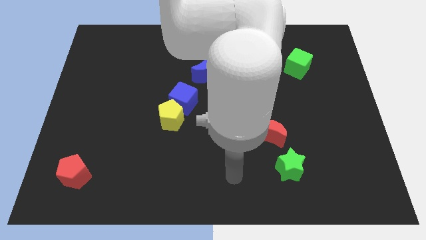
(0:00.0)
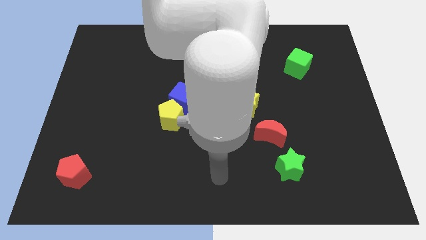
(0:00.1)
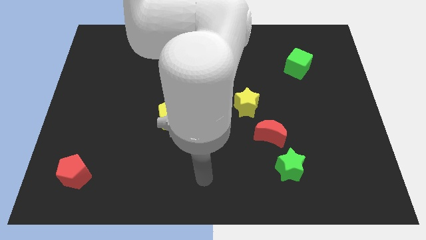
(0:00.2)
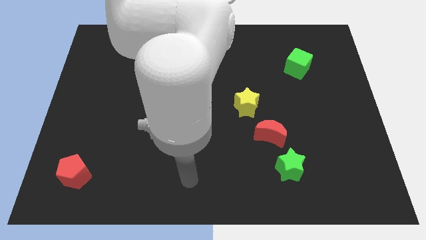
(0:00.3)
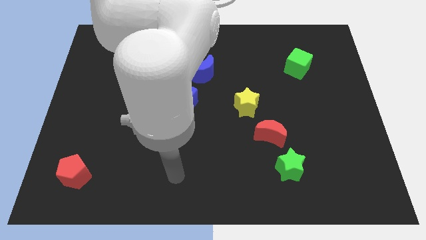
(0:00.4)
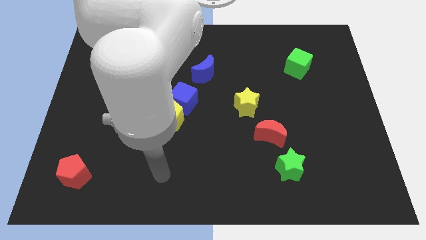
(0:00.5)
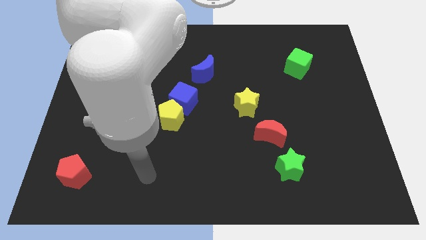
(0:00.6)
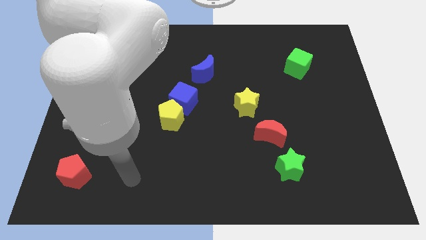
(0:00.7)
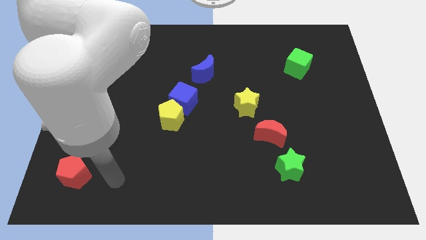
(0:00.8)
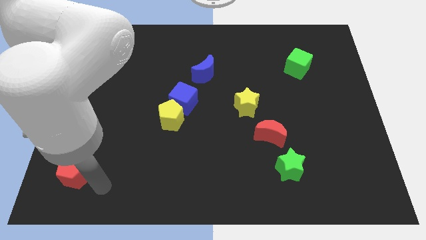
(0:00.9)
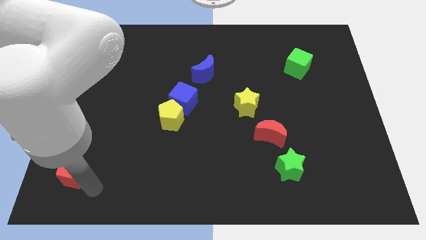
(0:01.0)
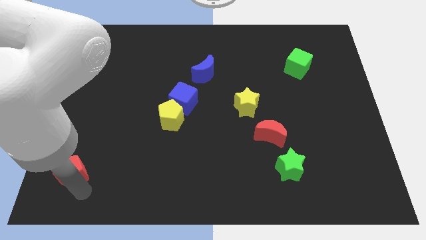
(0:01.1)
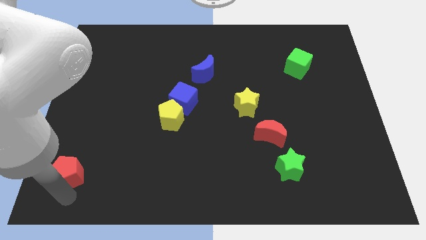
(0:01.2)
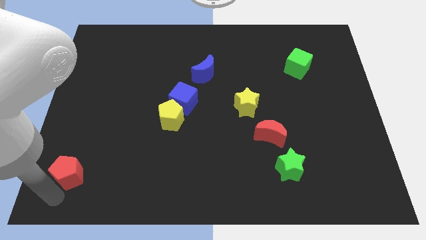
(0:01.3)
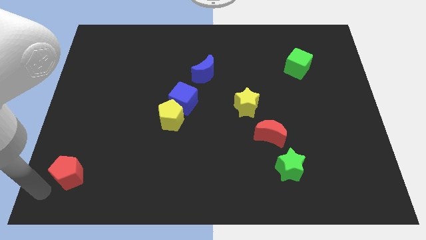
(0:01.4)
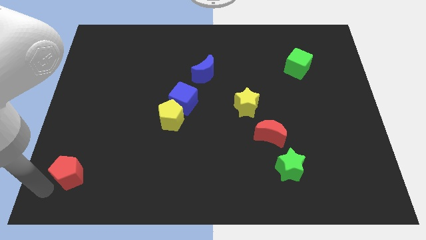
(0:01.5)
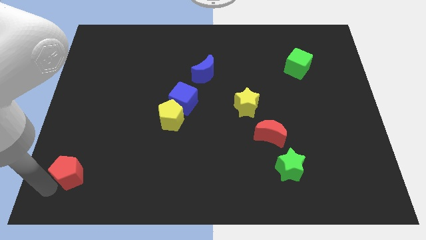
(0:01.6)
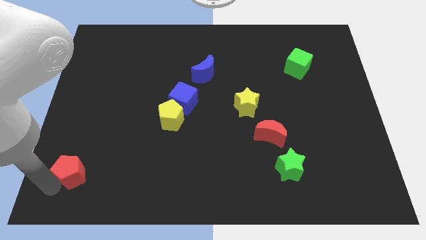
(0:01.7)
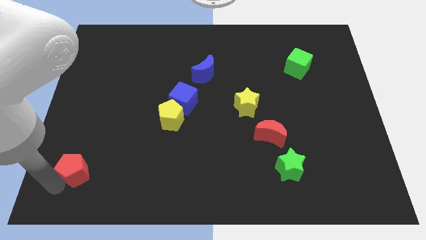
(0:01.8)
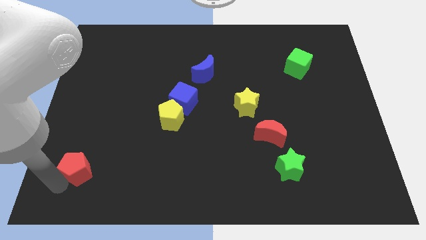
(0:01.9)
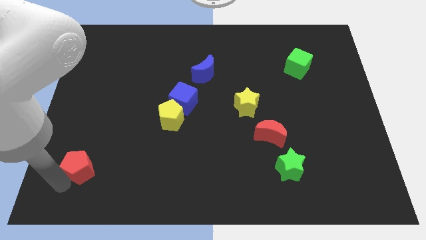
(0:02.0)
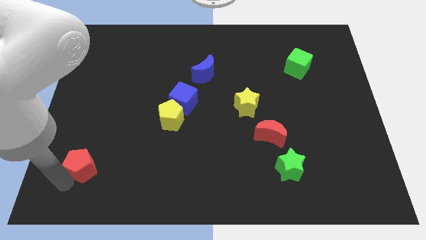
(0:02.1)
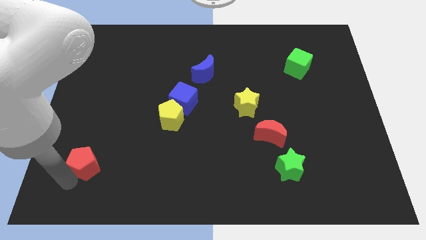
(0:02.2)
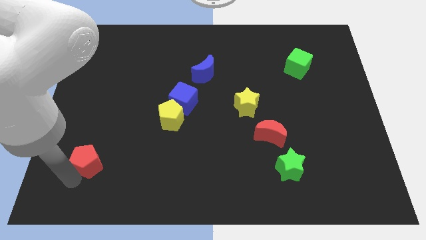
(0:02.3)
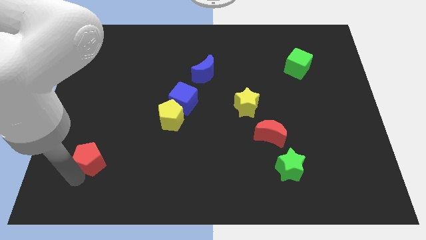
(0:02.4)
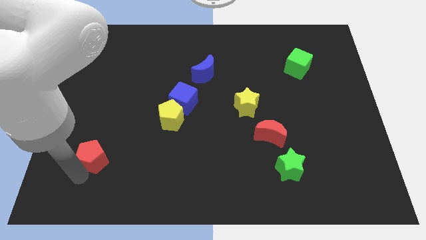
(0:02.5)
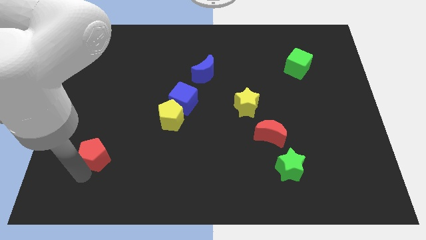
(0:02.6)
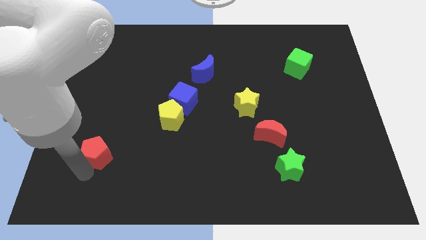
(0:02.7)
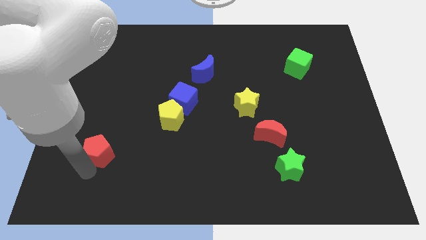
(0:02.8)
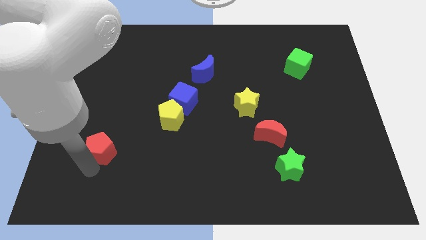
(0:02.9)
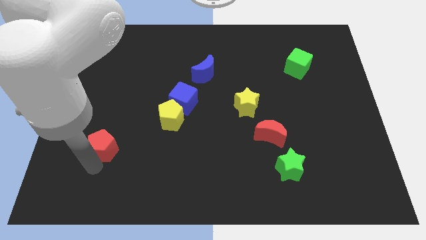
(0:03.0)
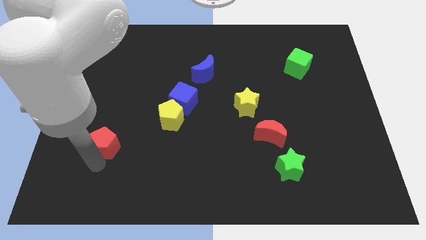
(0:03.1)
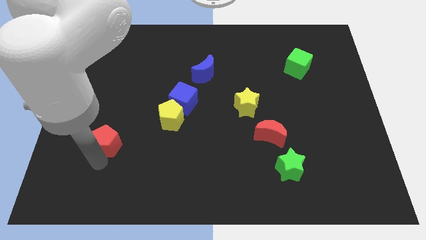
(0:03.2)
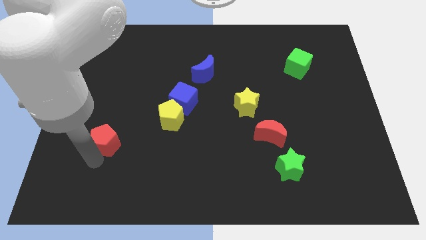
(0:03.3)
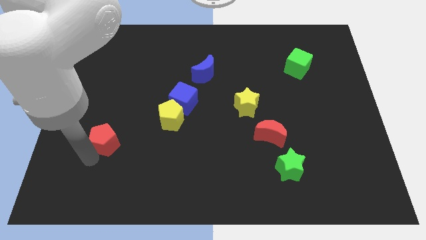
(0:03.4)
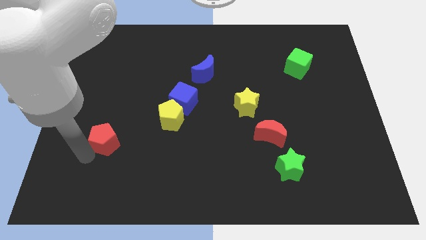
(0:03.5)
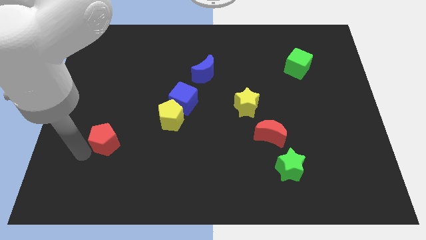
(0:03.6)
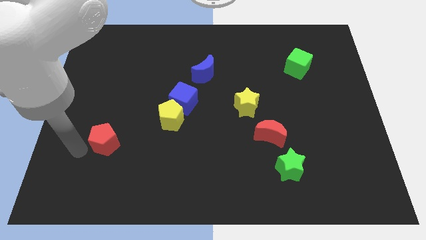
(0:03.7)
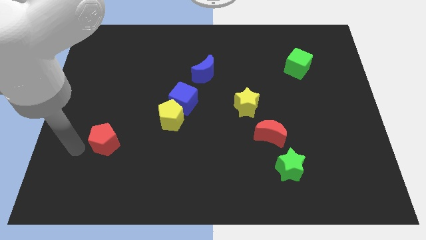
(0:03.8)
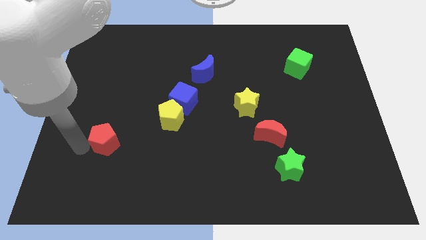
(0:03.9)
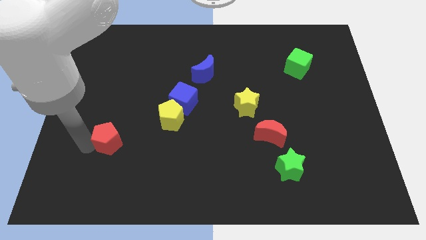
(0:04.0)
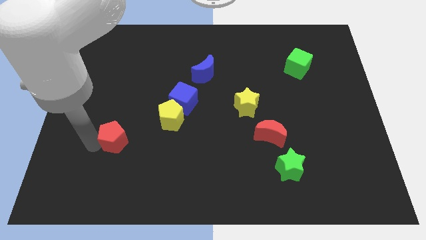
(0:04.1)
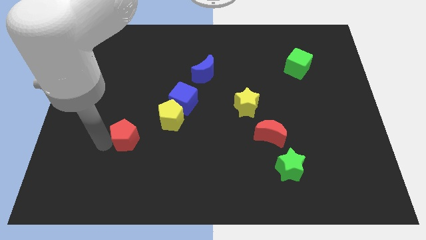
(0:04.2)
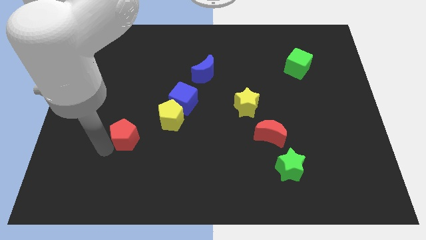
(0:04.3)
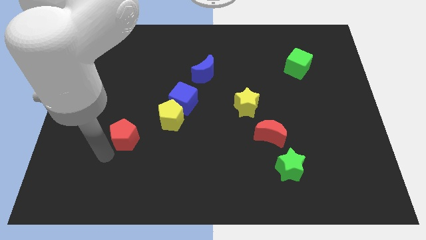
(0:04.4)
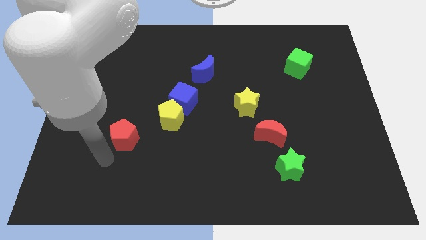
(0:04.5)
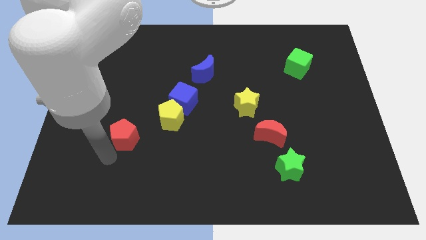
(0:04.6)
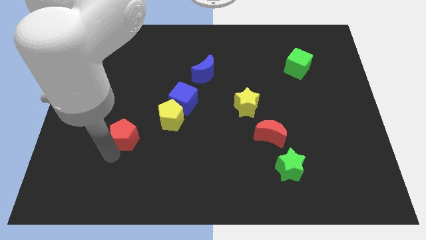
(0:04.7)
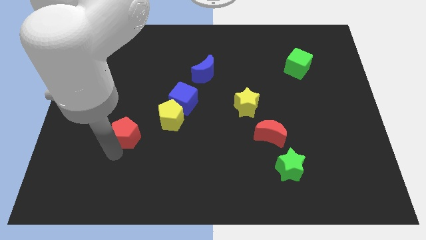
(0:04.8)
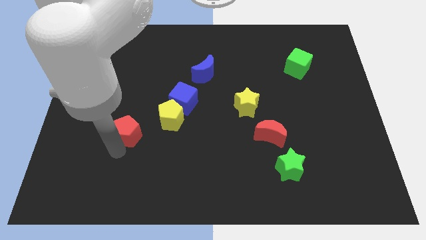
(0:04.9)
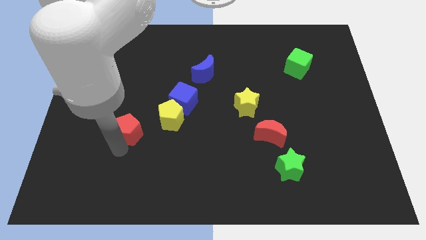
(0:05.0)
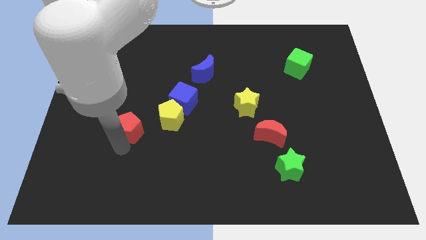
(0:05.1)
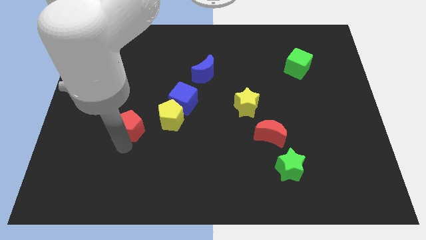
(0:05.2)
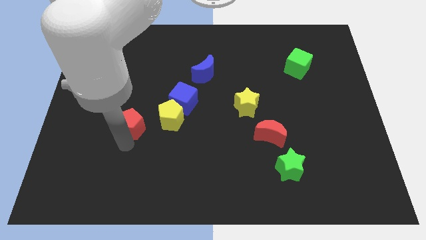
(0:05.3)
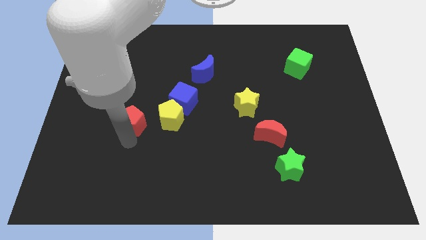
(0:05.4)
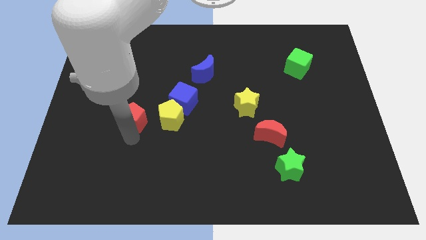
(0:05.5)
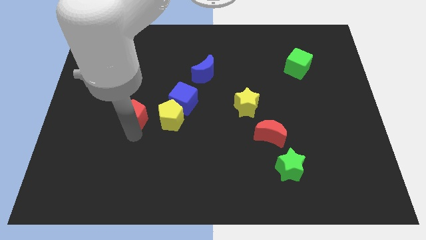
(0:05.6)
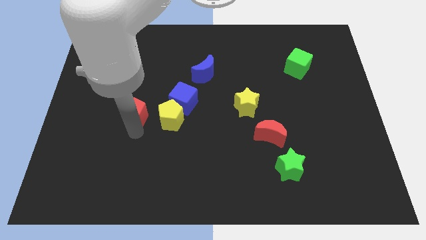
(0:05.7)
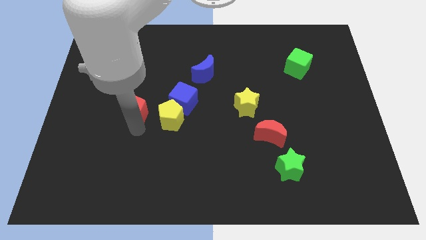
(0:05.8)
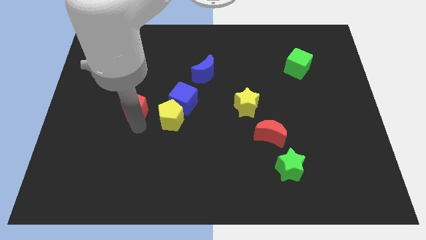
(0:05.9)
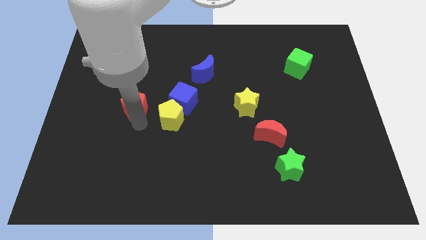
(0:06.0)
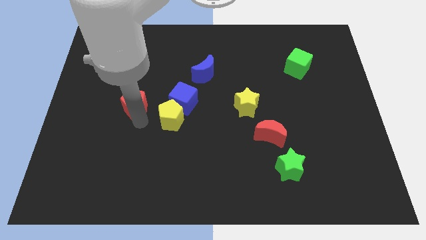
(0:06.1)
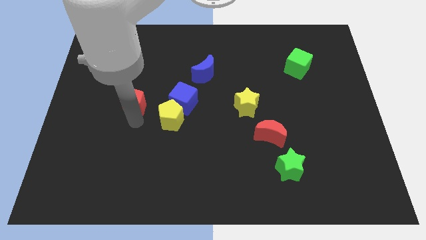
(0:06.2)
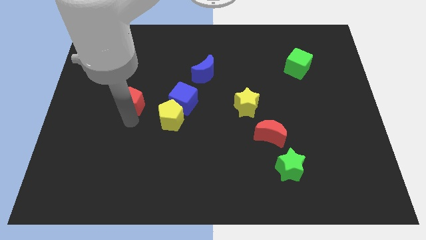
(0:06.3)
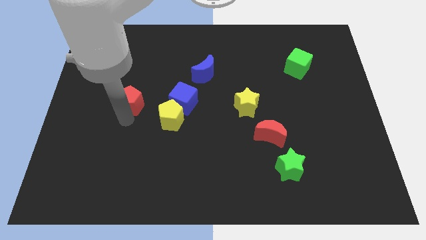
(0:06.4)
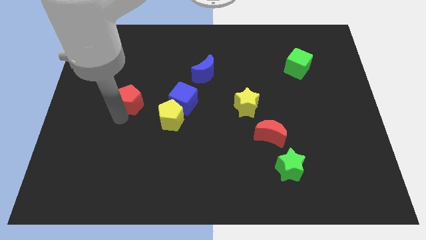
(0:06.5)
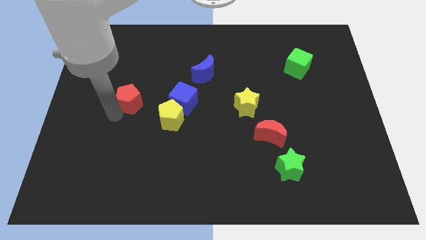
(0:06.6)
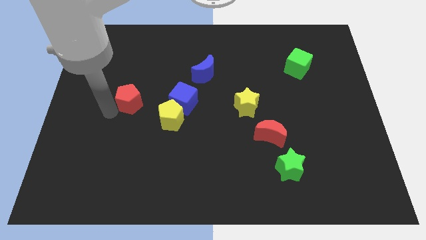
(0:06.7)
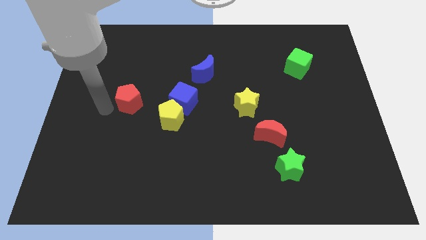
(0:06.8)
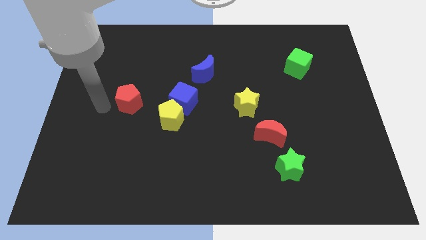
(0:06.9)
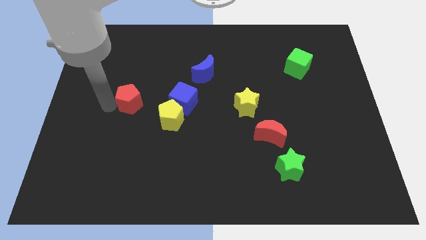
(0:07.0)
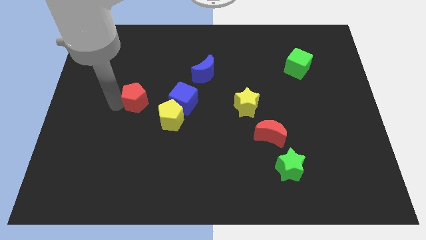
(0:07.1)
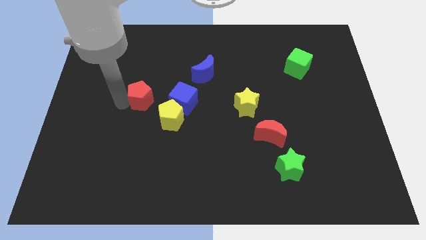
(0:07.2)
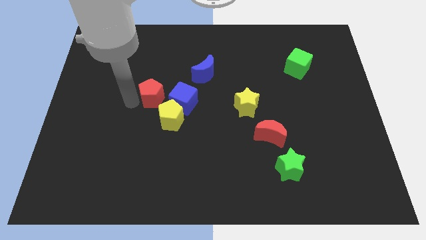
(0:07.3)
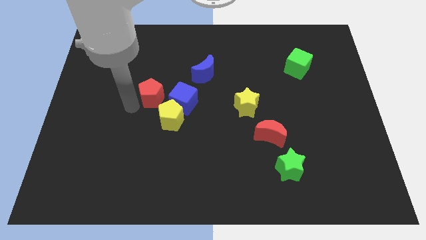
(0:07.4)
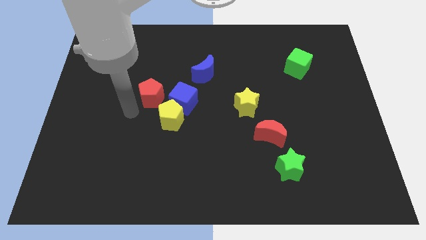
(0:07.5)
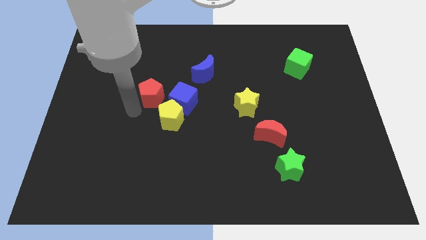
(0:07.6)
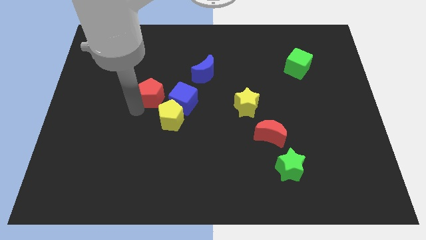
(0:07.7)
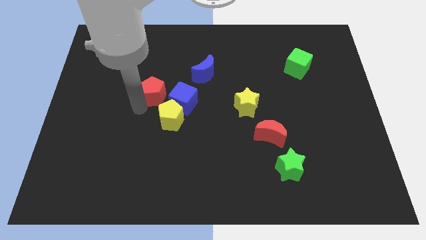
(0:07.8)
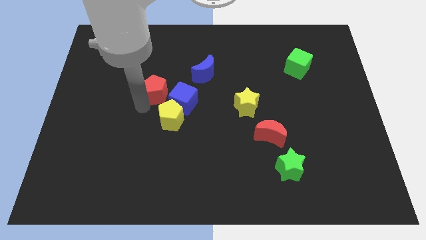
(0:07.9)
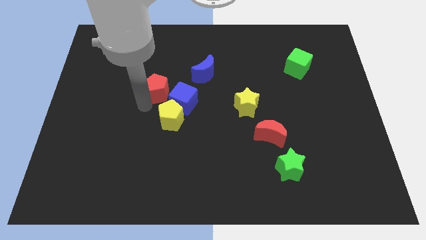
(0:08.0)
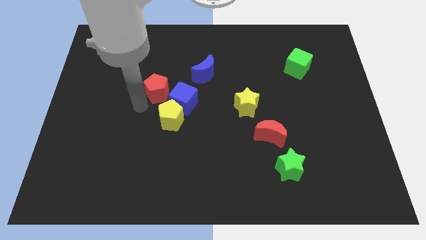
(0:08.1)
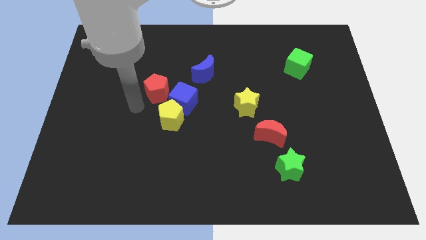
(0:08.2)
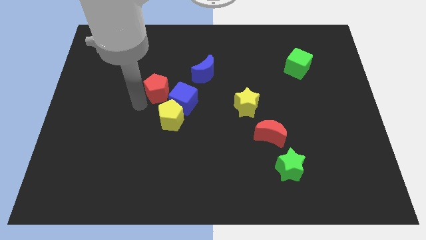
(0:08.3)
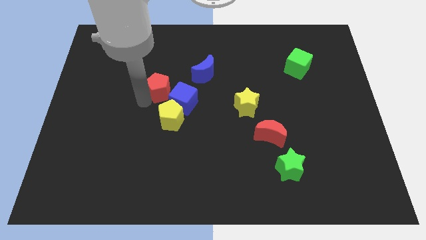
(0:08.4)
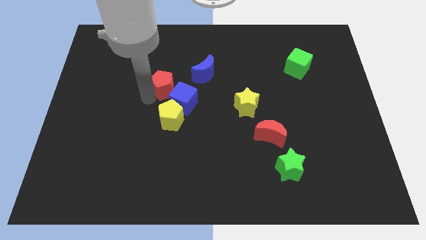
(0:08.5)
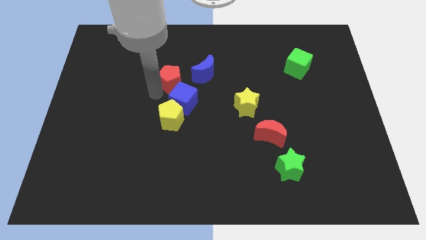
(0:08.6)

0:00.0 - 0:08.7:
slide the red pentagon to the top side of the blue cube
